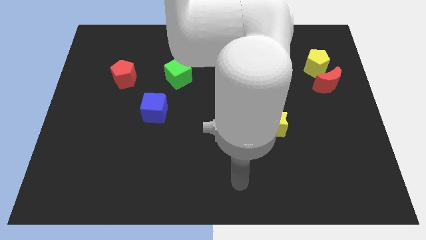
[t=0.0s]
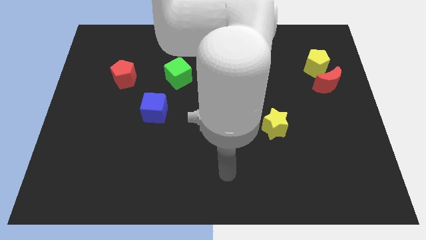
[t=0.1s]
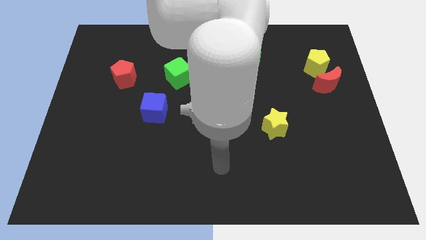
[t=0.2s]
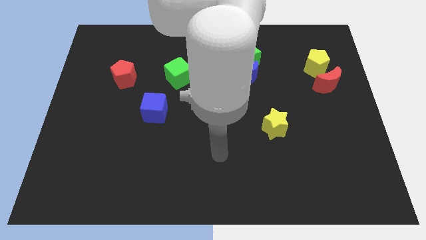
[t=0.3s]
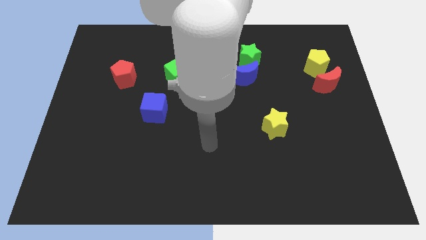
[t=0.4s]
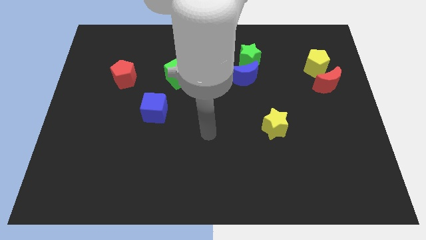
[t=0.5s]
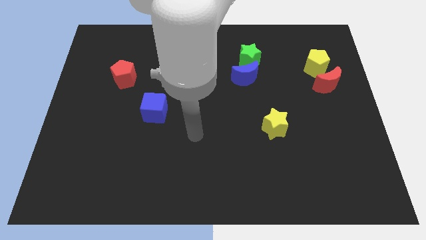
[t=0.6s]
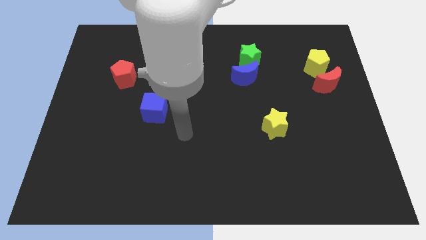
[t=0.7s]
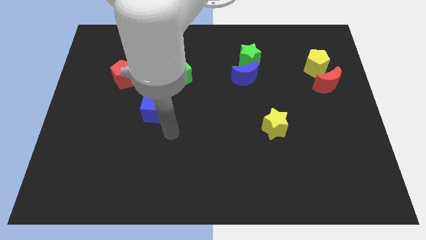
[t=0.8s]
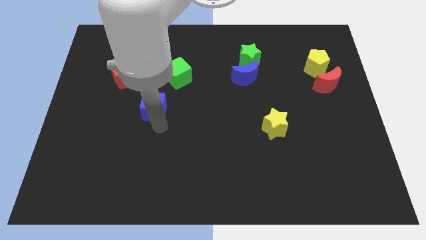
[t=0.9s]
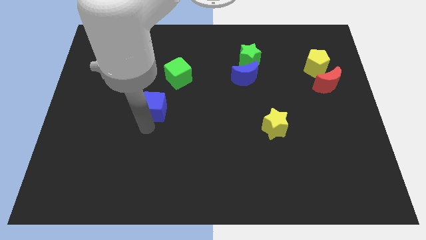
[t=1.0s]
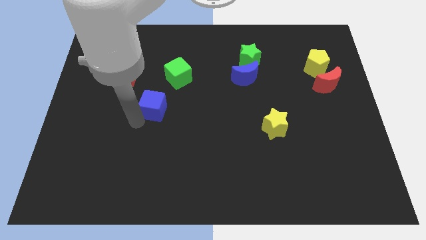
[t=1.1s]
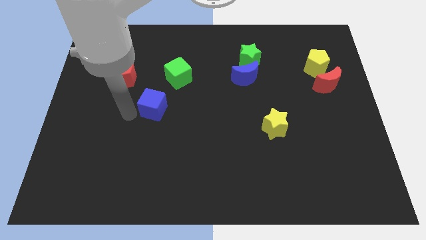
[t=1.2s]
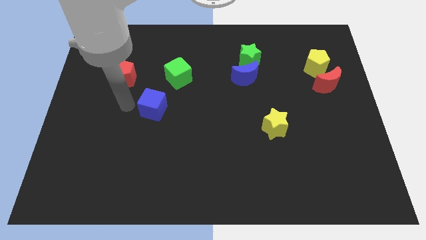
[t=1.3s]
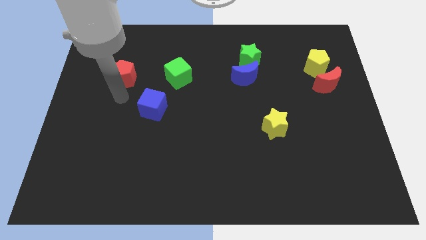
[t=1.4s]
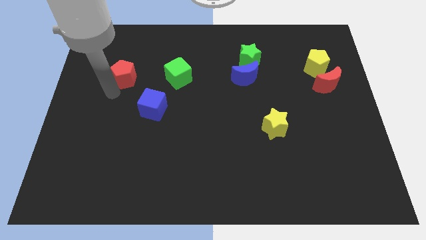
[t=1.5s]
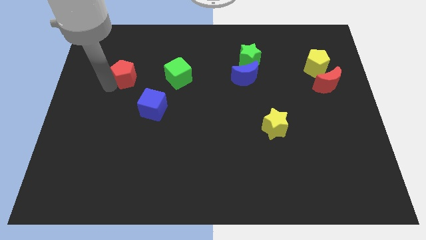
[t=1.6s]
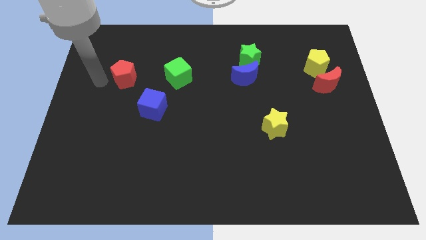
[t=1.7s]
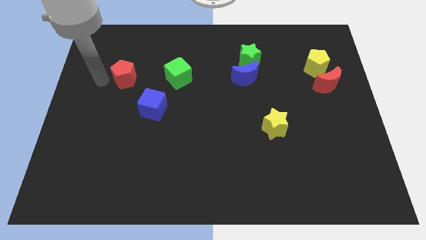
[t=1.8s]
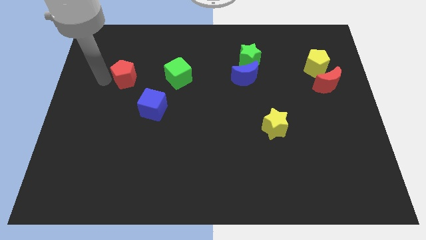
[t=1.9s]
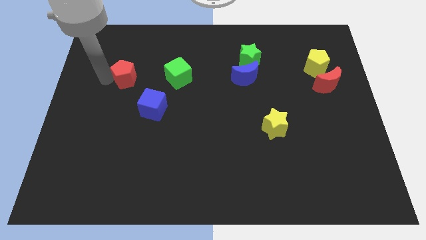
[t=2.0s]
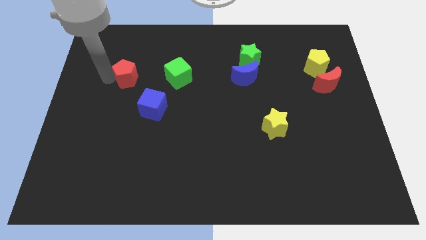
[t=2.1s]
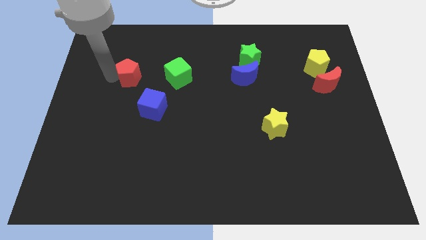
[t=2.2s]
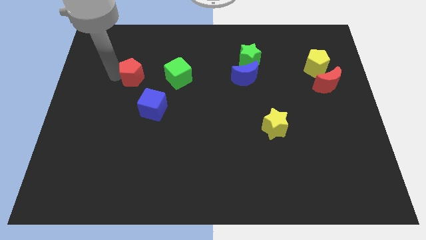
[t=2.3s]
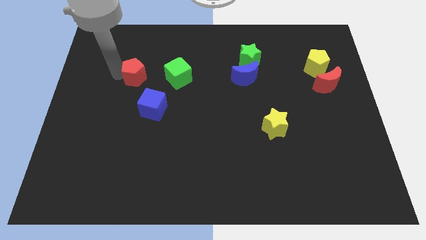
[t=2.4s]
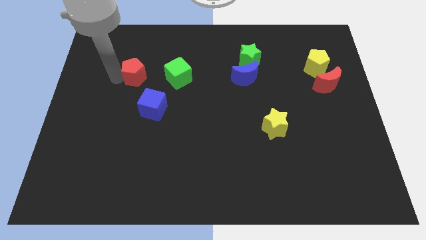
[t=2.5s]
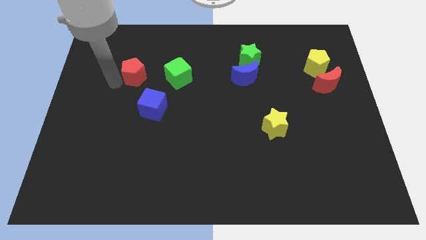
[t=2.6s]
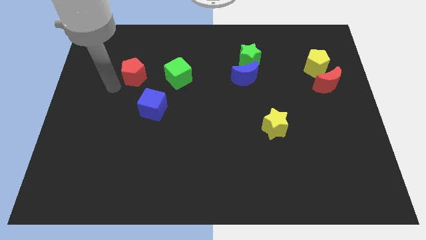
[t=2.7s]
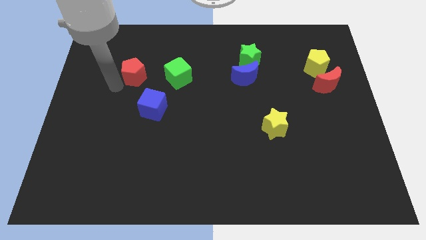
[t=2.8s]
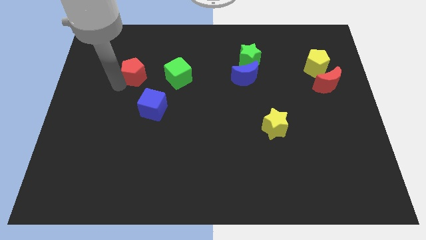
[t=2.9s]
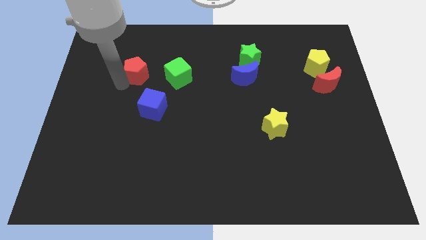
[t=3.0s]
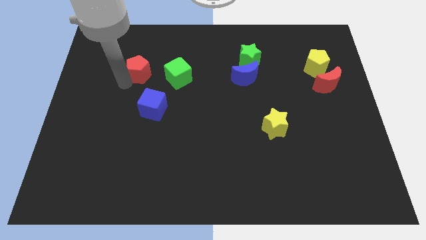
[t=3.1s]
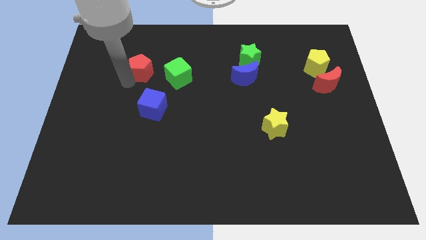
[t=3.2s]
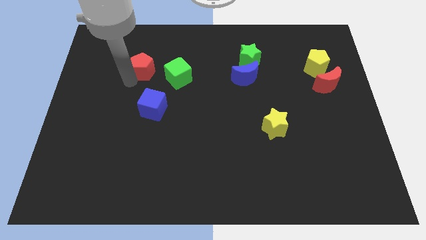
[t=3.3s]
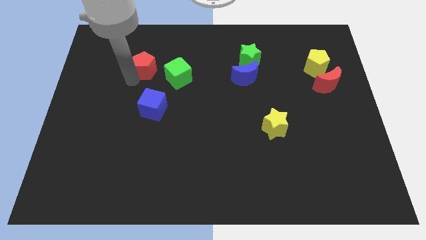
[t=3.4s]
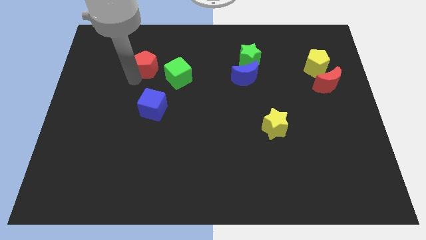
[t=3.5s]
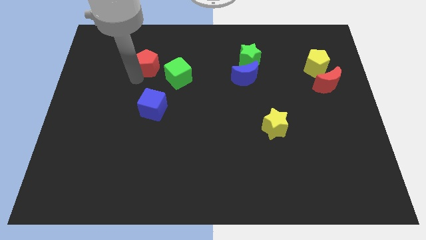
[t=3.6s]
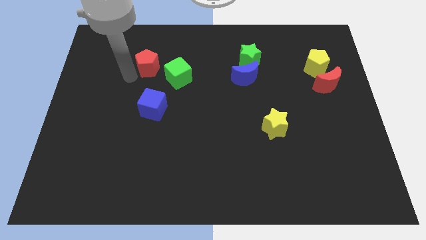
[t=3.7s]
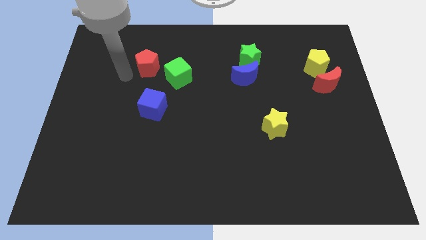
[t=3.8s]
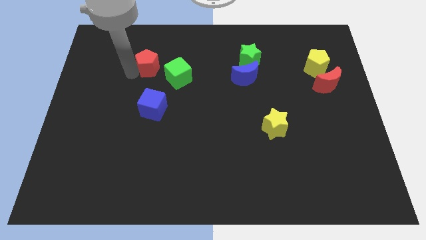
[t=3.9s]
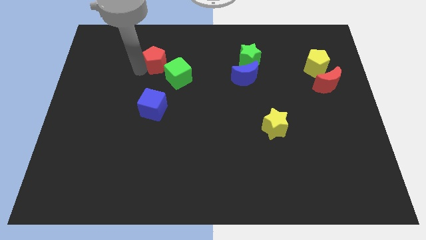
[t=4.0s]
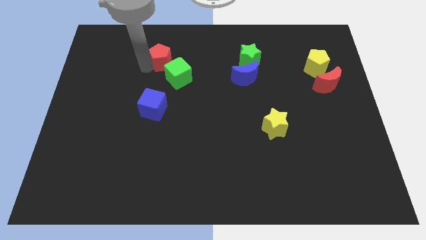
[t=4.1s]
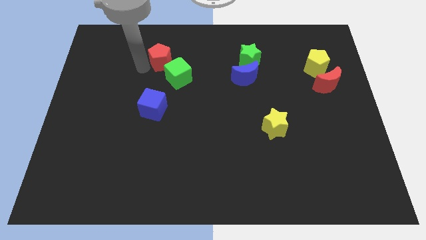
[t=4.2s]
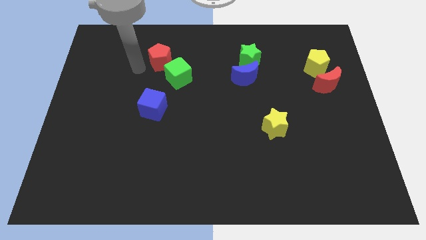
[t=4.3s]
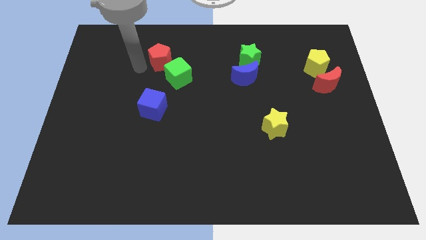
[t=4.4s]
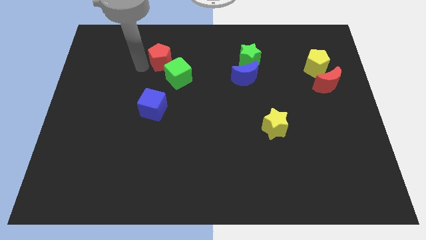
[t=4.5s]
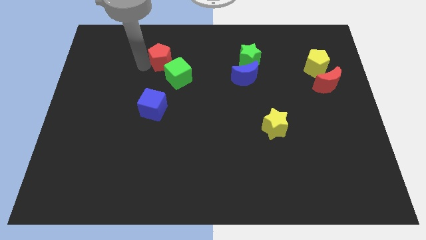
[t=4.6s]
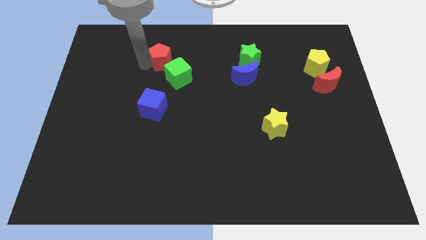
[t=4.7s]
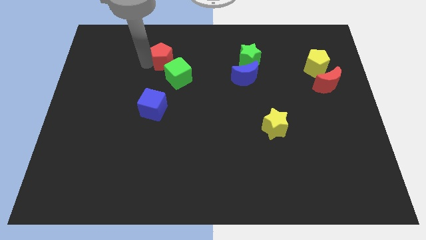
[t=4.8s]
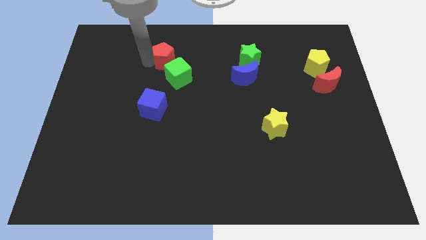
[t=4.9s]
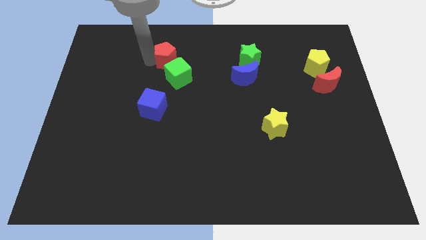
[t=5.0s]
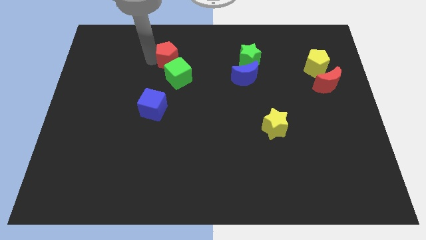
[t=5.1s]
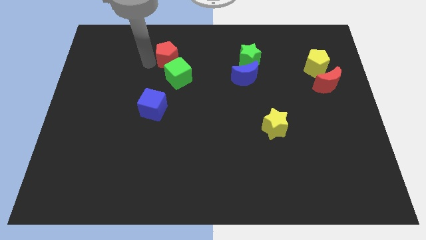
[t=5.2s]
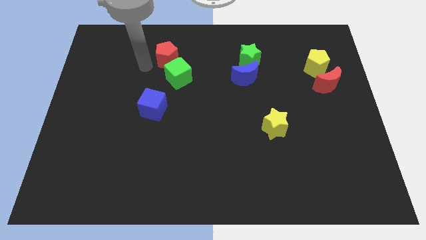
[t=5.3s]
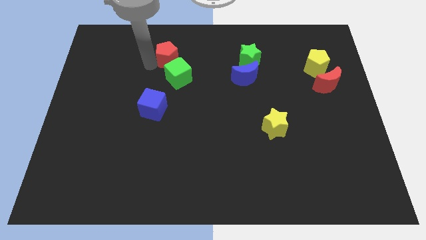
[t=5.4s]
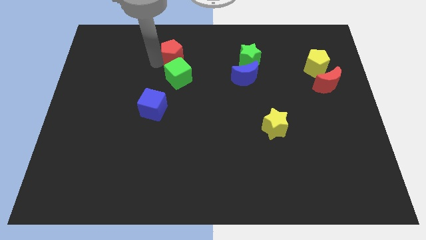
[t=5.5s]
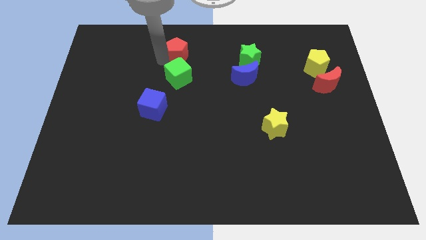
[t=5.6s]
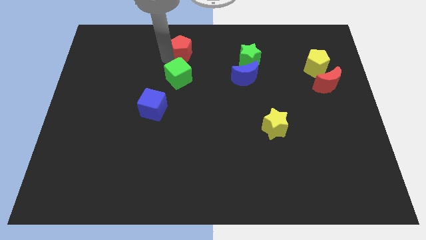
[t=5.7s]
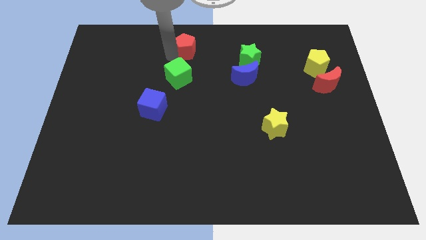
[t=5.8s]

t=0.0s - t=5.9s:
move the red pentagon to the towards your base
